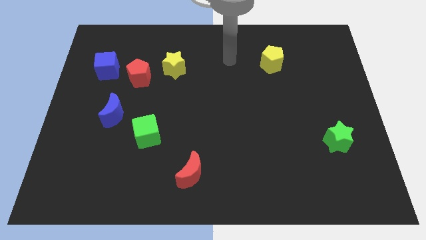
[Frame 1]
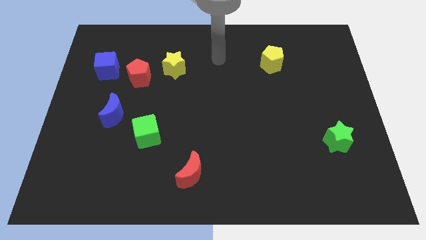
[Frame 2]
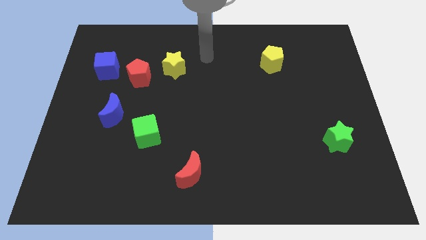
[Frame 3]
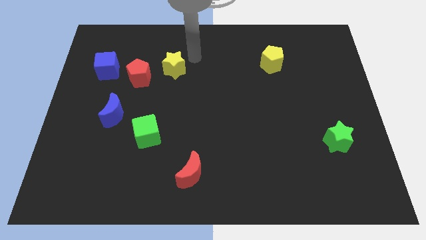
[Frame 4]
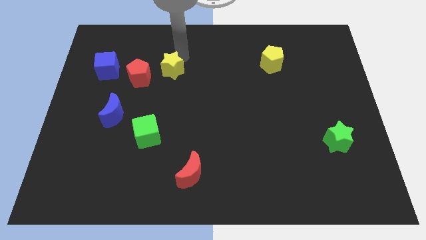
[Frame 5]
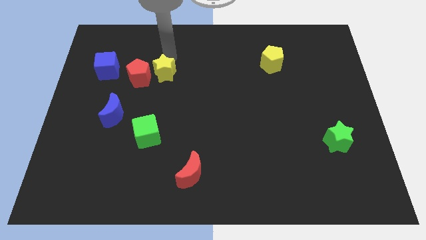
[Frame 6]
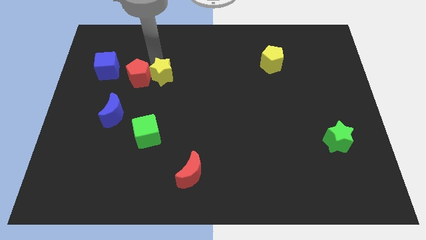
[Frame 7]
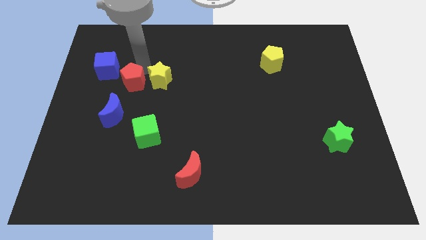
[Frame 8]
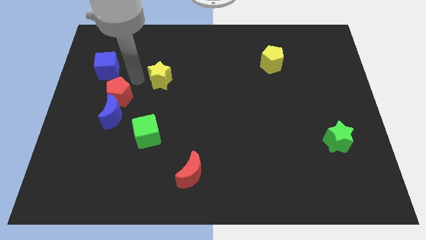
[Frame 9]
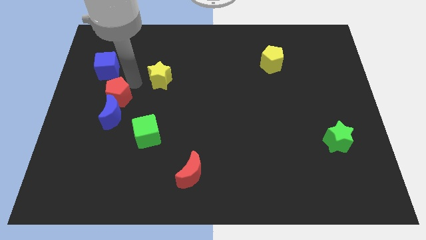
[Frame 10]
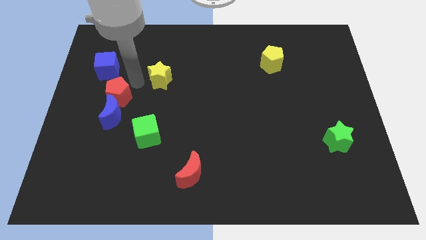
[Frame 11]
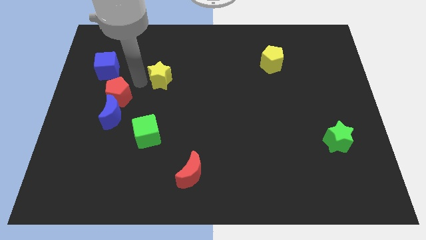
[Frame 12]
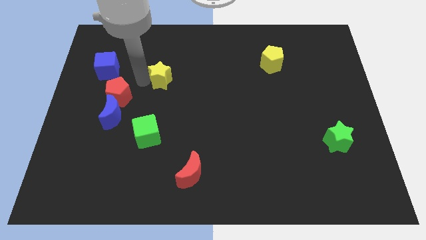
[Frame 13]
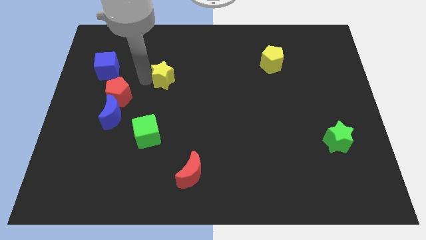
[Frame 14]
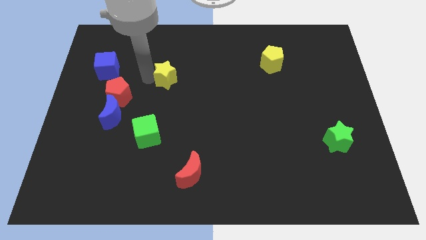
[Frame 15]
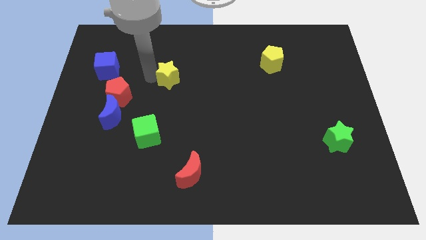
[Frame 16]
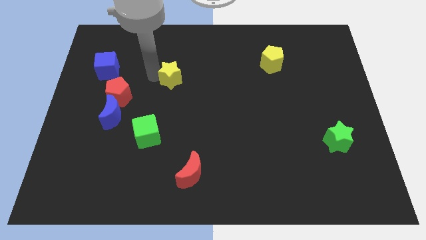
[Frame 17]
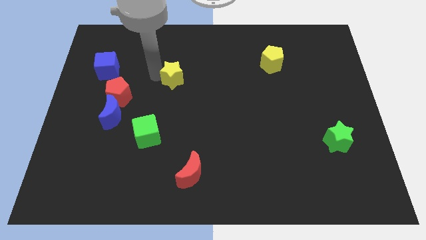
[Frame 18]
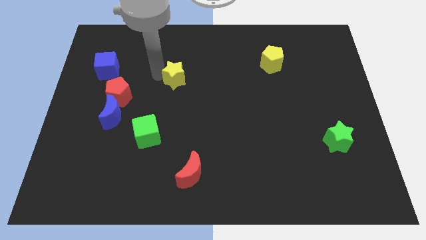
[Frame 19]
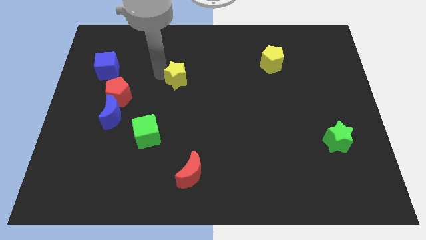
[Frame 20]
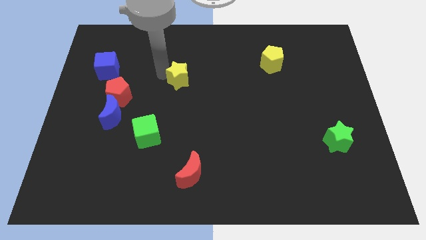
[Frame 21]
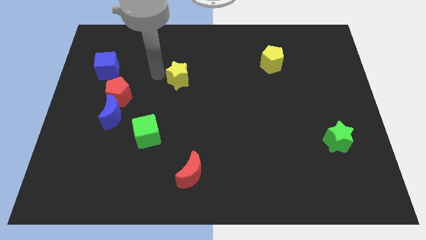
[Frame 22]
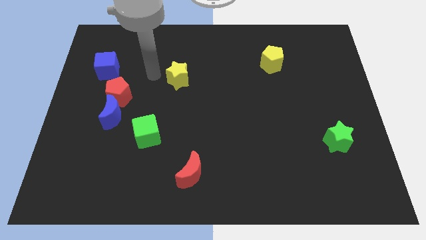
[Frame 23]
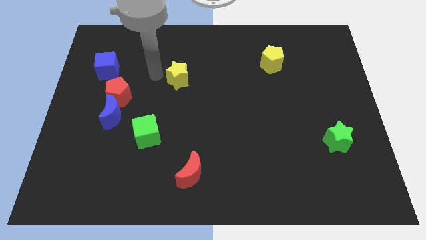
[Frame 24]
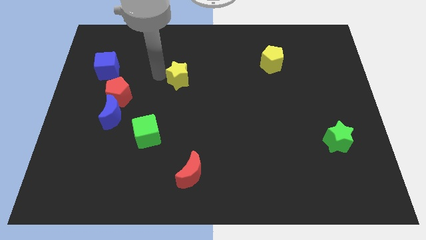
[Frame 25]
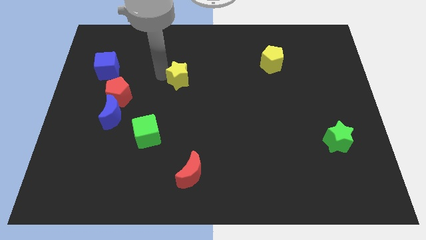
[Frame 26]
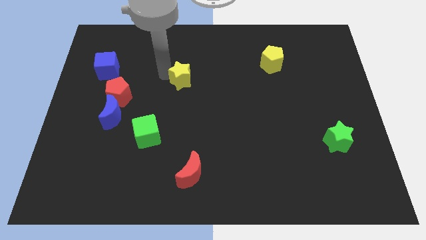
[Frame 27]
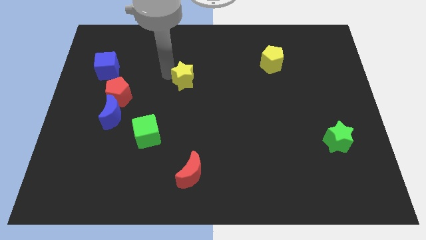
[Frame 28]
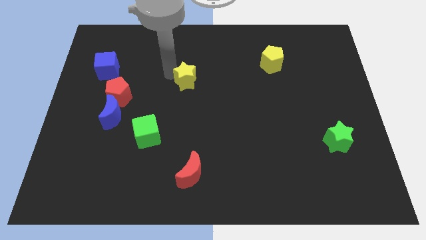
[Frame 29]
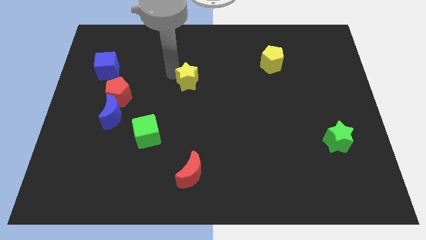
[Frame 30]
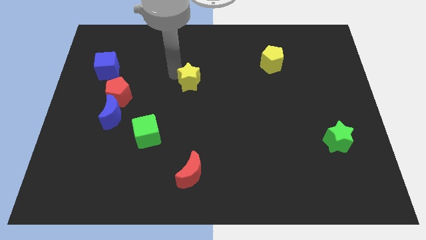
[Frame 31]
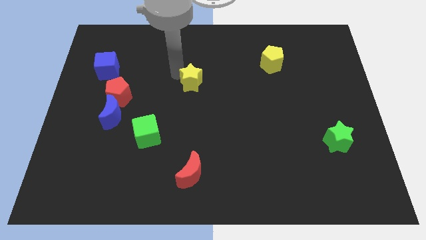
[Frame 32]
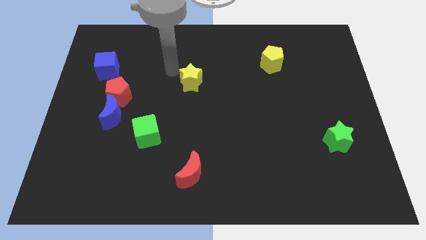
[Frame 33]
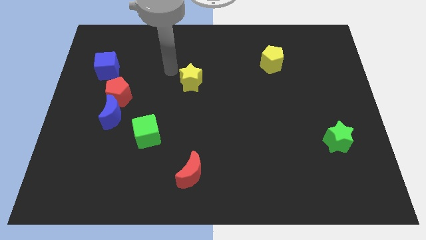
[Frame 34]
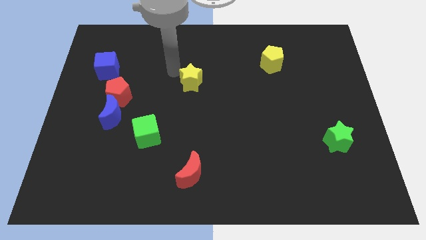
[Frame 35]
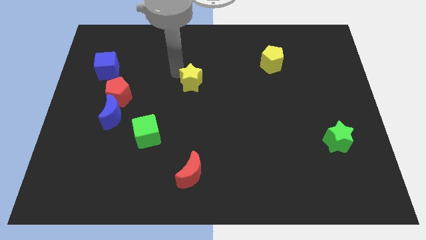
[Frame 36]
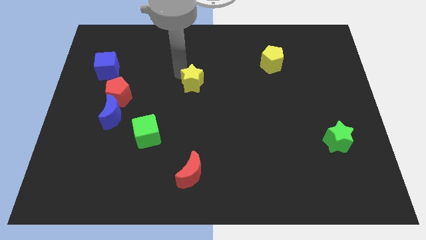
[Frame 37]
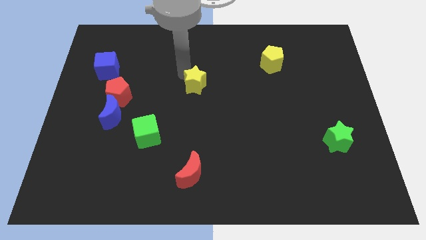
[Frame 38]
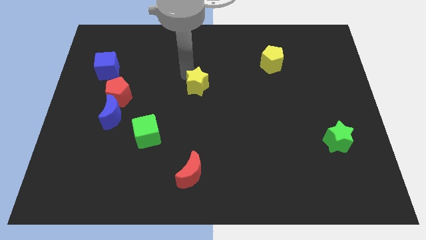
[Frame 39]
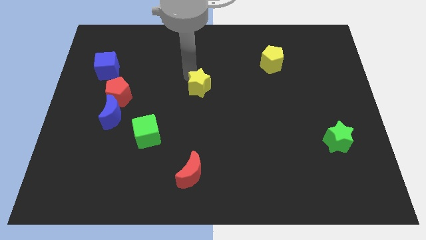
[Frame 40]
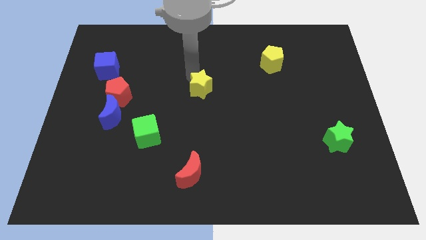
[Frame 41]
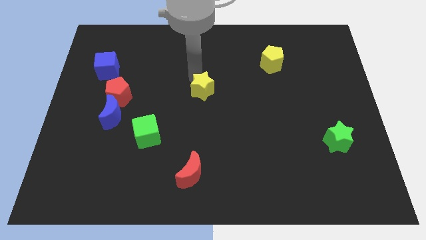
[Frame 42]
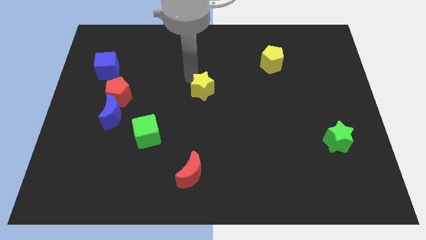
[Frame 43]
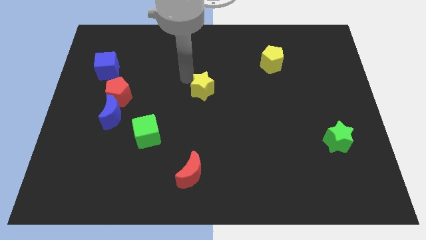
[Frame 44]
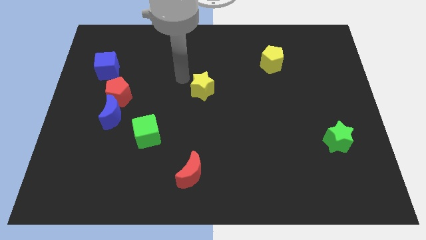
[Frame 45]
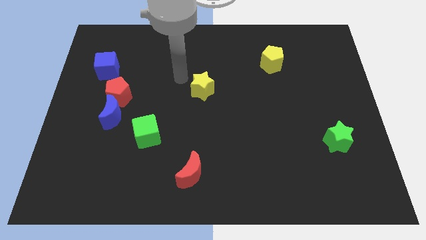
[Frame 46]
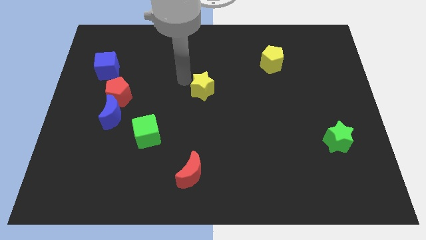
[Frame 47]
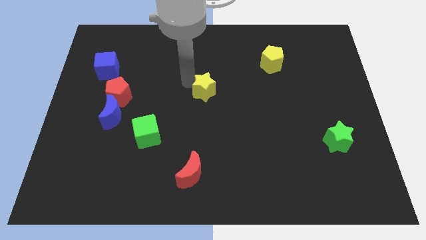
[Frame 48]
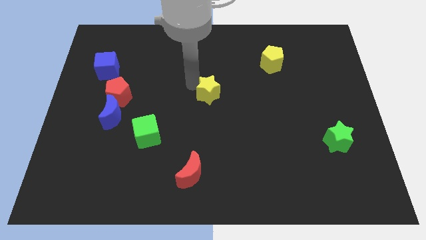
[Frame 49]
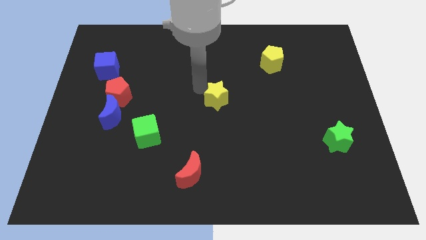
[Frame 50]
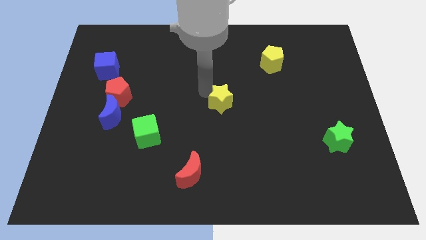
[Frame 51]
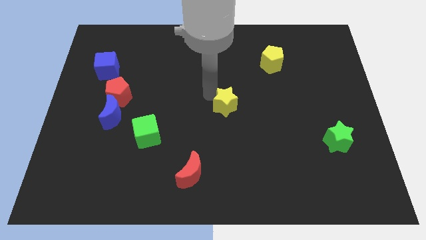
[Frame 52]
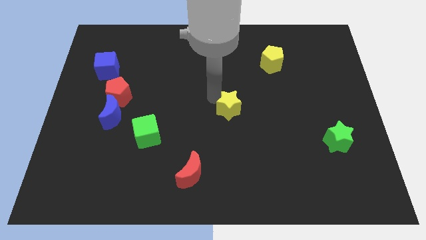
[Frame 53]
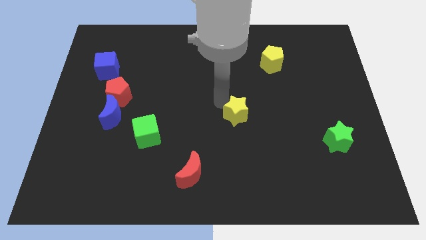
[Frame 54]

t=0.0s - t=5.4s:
slide the yellow star downwards and to the right

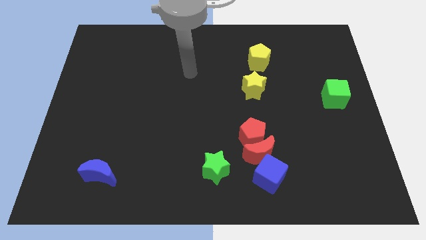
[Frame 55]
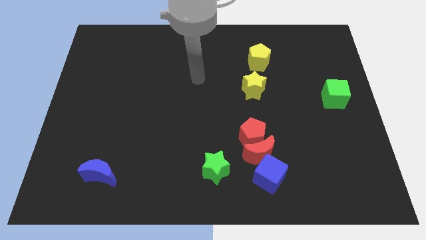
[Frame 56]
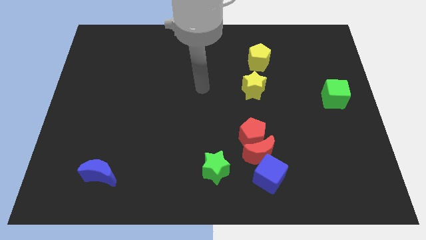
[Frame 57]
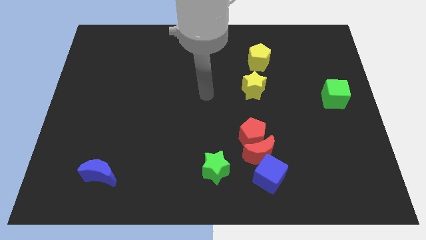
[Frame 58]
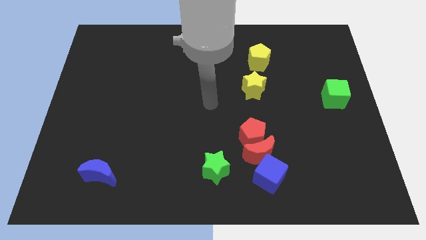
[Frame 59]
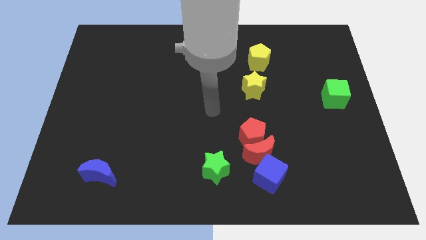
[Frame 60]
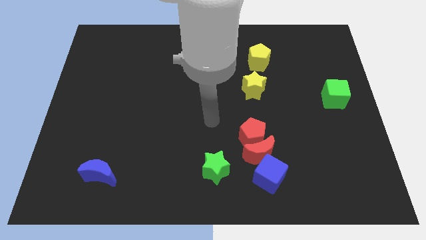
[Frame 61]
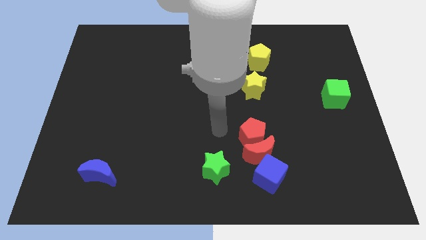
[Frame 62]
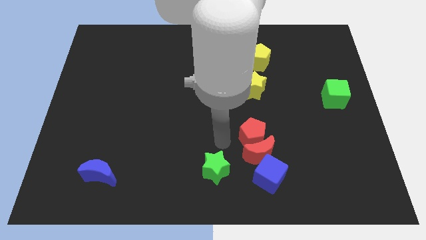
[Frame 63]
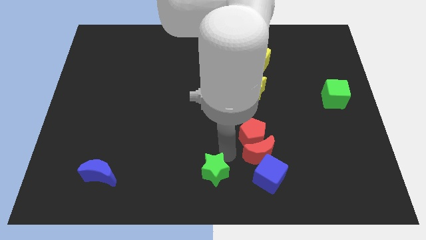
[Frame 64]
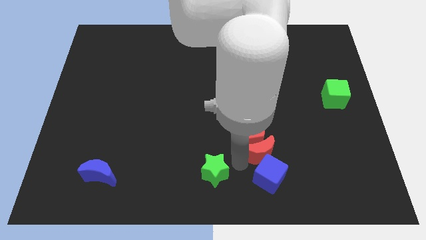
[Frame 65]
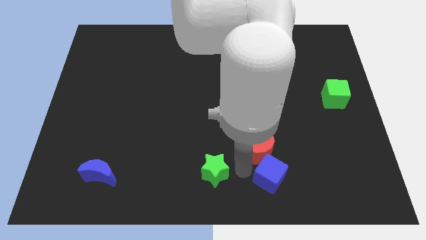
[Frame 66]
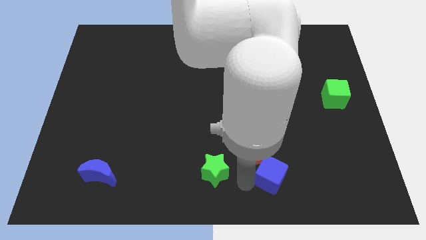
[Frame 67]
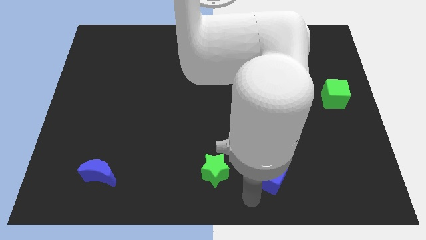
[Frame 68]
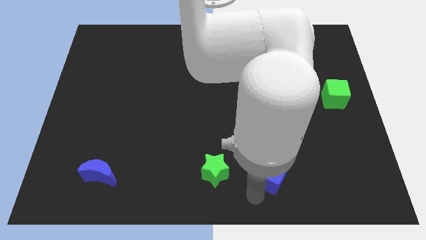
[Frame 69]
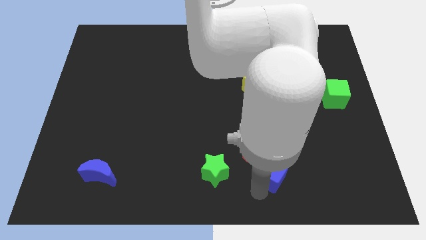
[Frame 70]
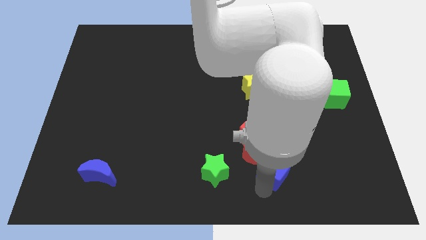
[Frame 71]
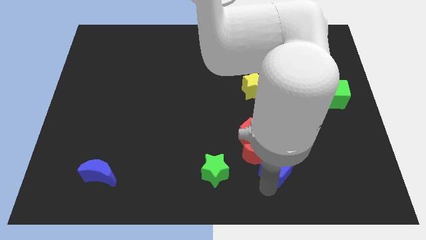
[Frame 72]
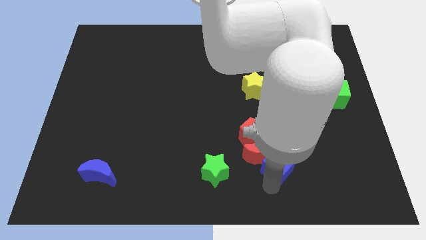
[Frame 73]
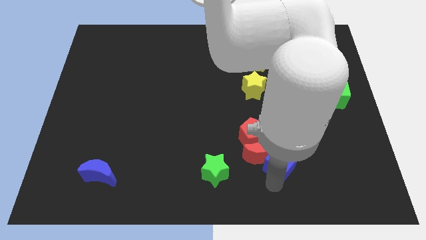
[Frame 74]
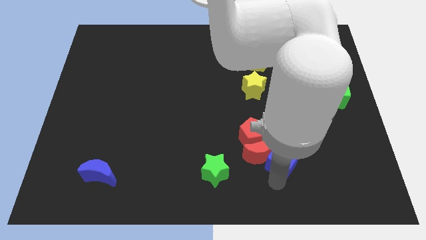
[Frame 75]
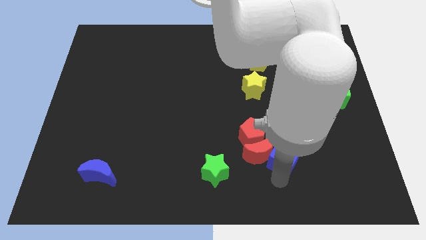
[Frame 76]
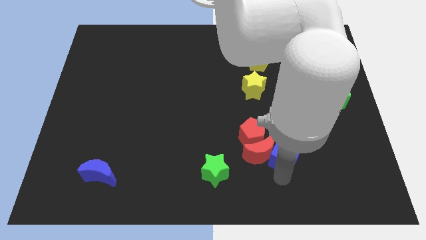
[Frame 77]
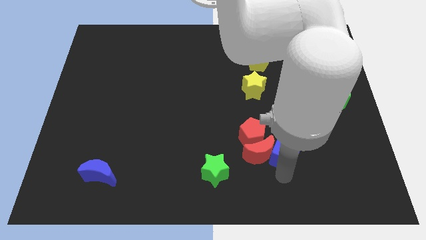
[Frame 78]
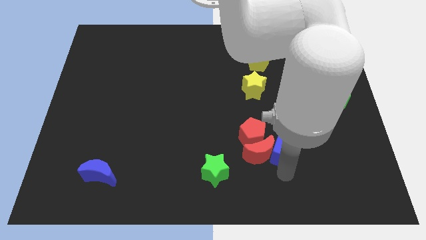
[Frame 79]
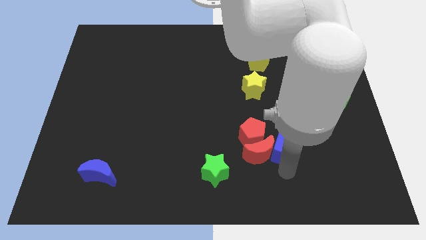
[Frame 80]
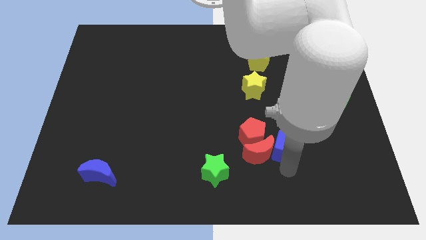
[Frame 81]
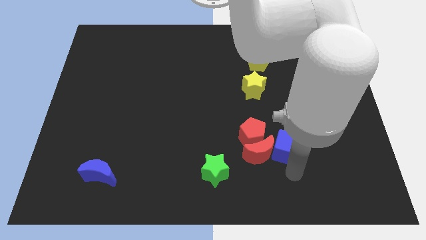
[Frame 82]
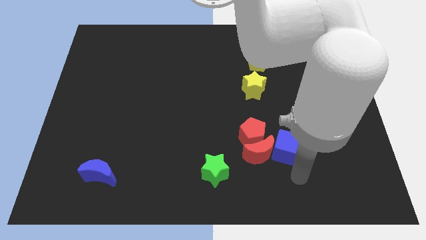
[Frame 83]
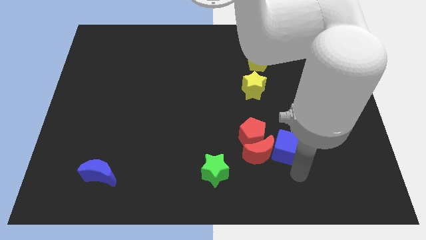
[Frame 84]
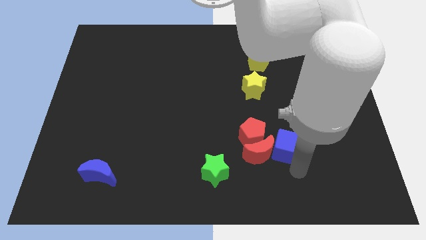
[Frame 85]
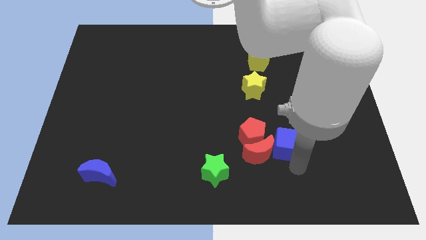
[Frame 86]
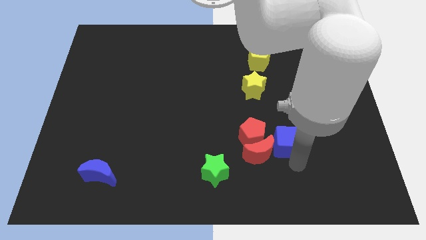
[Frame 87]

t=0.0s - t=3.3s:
slightly slide the blue cube upwards
